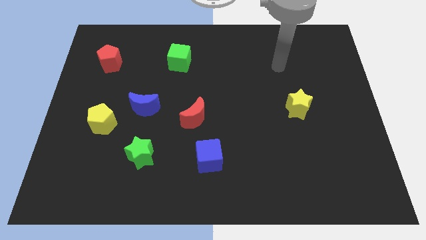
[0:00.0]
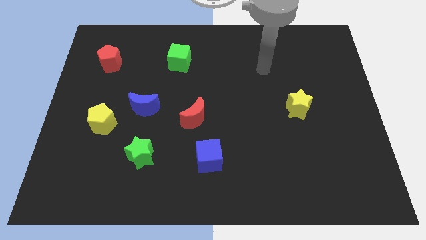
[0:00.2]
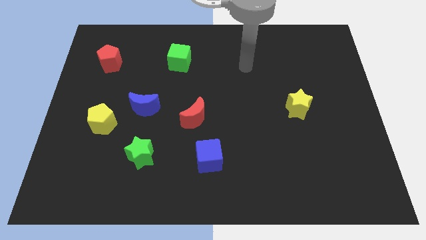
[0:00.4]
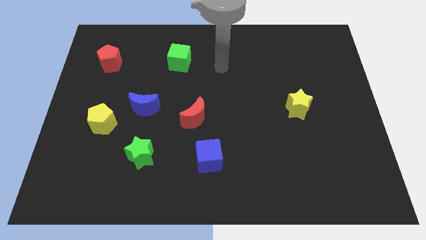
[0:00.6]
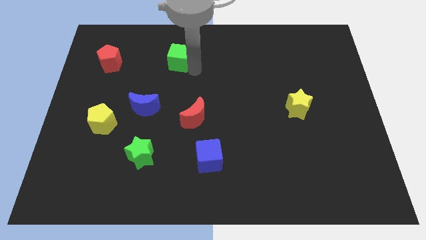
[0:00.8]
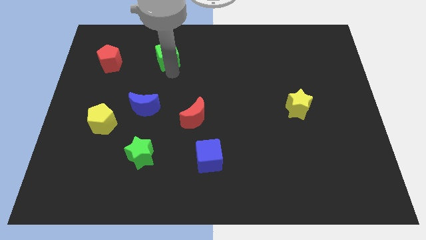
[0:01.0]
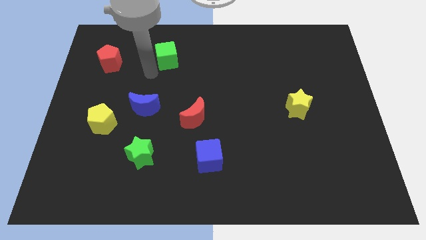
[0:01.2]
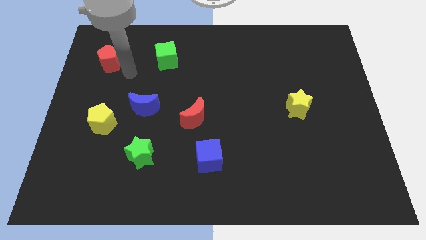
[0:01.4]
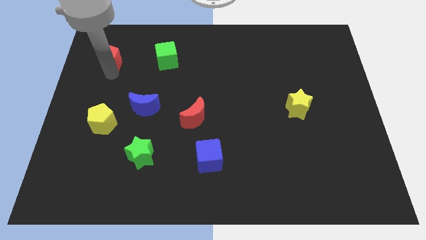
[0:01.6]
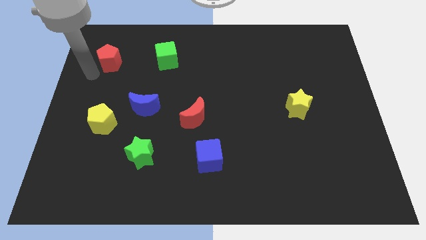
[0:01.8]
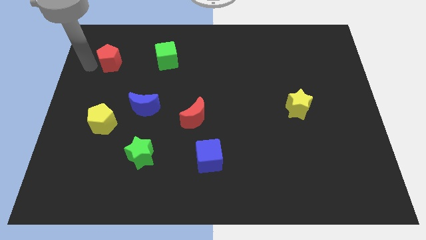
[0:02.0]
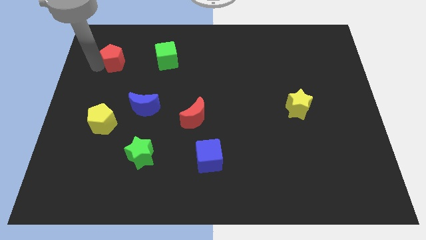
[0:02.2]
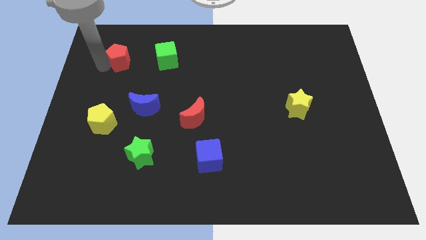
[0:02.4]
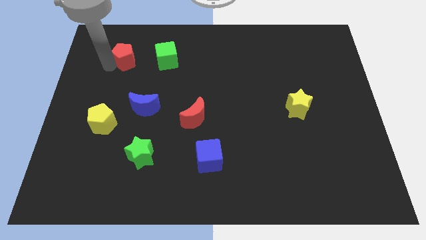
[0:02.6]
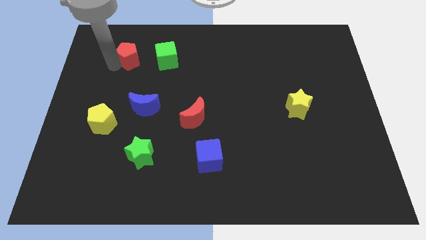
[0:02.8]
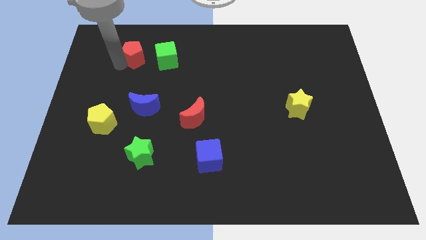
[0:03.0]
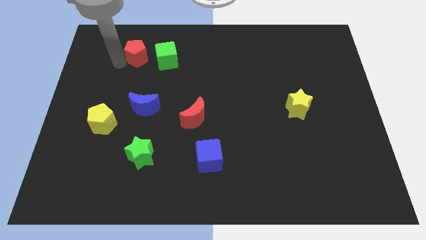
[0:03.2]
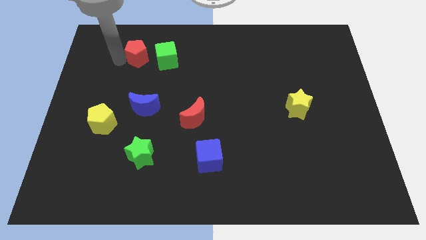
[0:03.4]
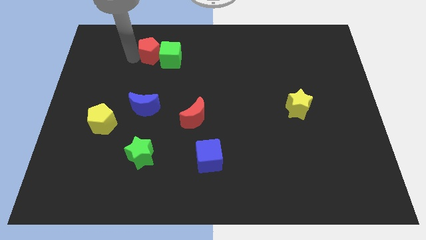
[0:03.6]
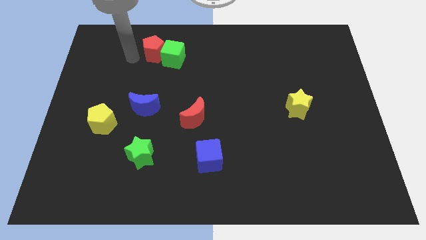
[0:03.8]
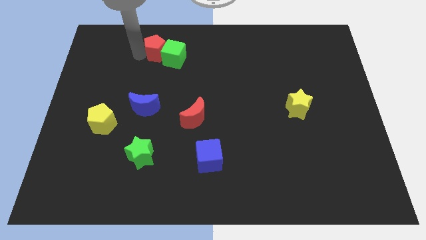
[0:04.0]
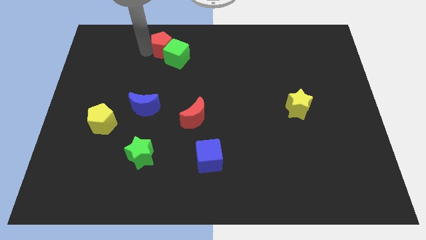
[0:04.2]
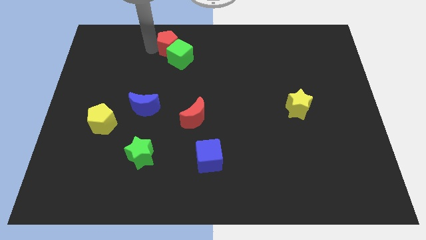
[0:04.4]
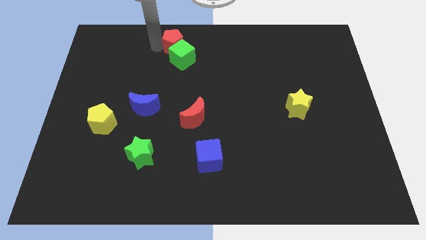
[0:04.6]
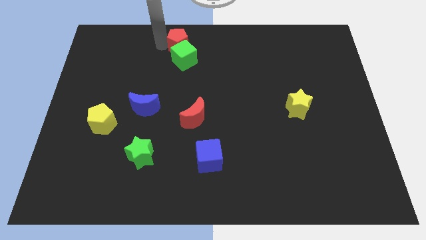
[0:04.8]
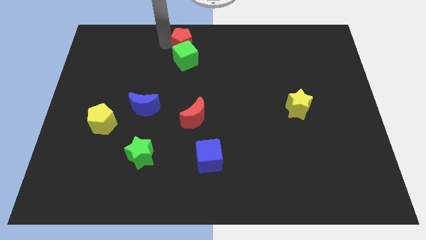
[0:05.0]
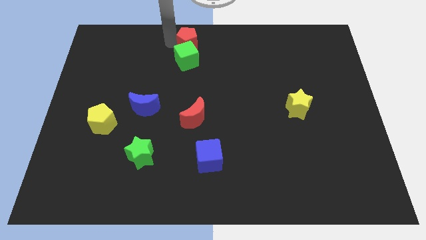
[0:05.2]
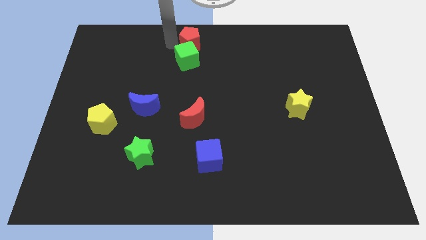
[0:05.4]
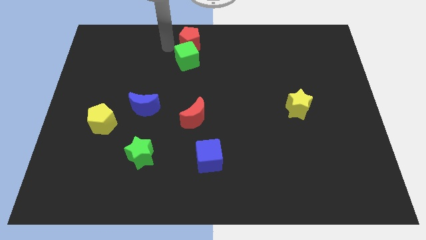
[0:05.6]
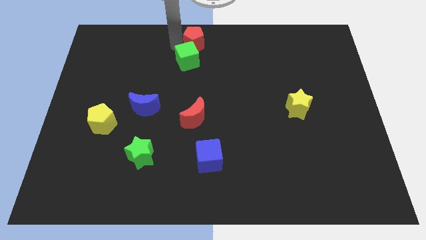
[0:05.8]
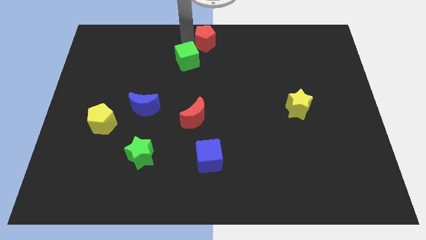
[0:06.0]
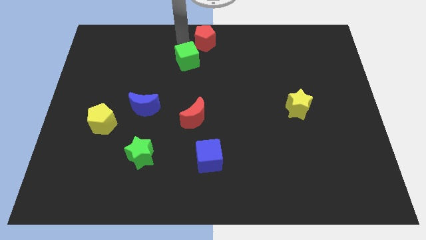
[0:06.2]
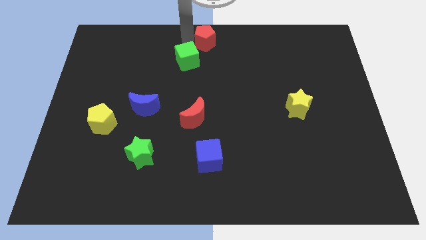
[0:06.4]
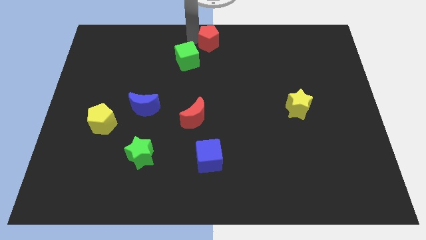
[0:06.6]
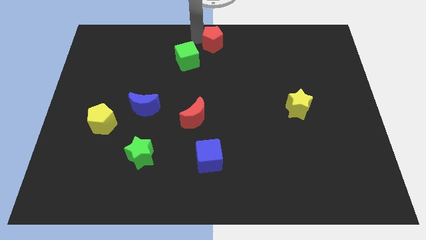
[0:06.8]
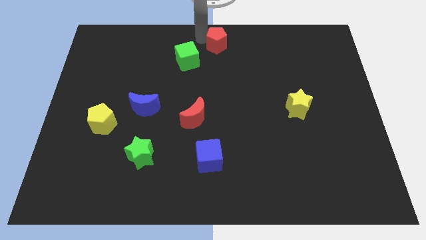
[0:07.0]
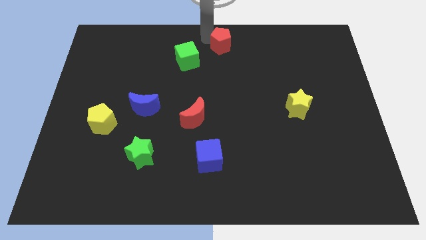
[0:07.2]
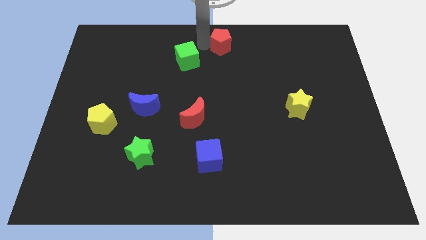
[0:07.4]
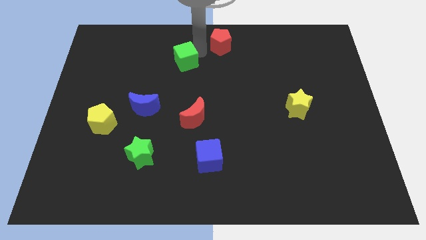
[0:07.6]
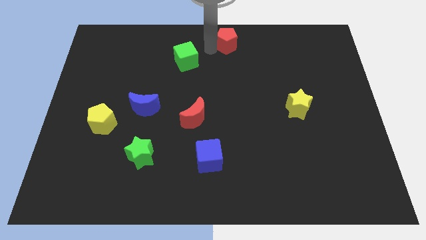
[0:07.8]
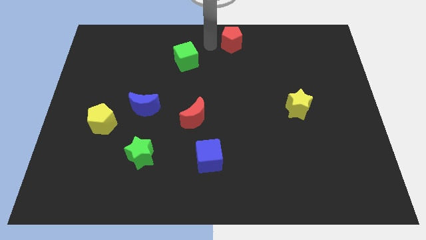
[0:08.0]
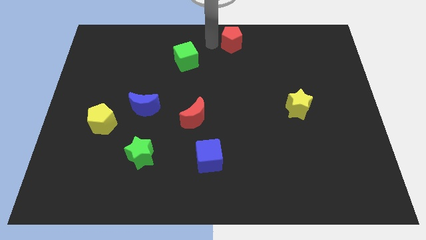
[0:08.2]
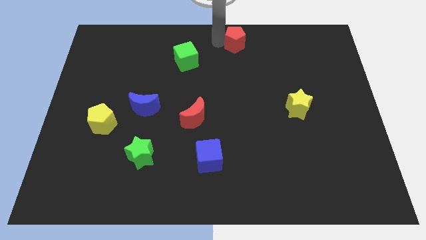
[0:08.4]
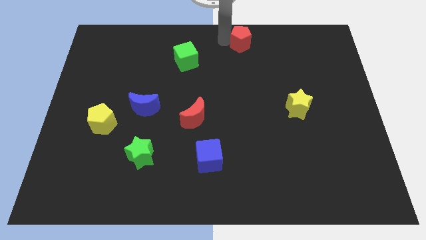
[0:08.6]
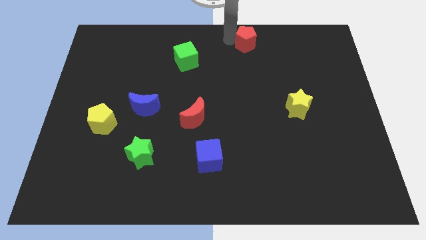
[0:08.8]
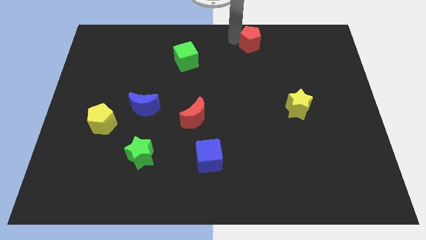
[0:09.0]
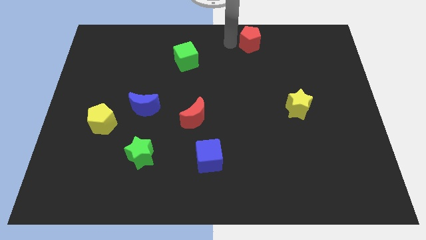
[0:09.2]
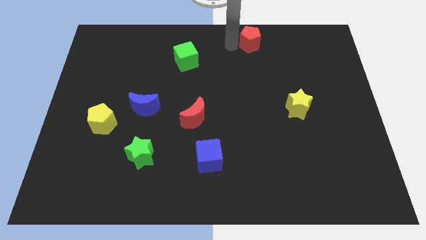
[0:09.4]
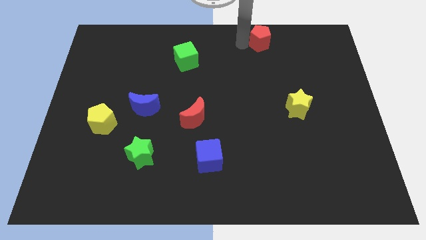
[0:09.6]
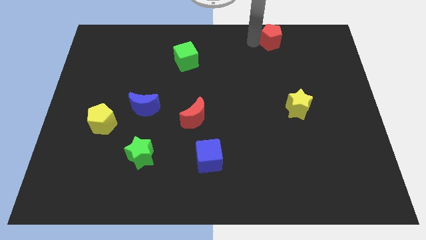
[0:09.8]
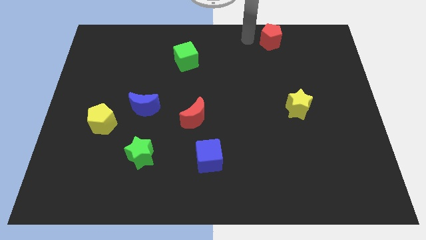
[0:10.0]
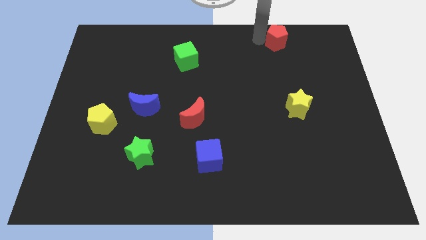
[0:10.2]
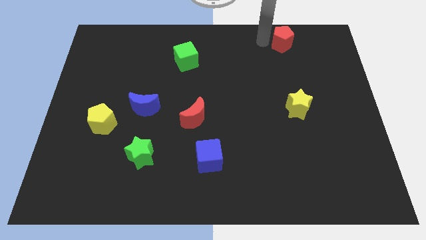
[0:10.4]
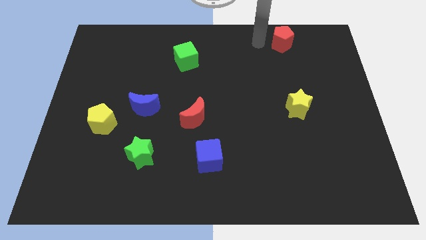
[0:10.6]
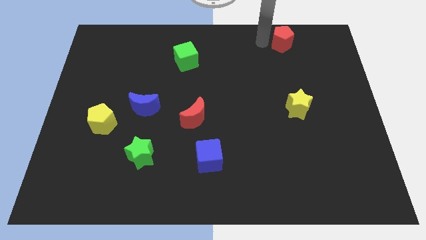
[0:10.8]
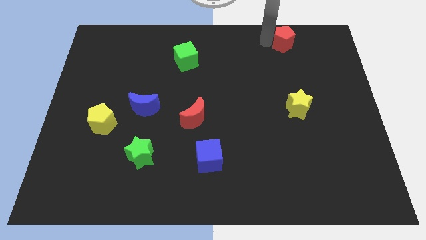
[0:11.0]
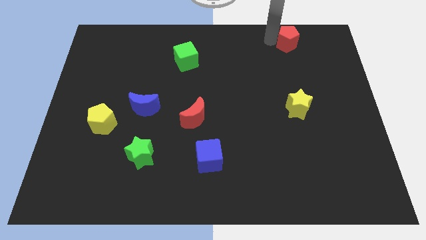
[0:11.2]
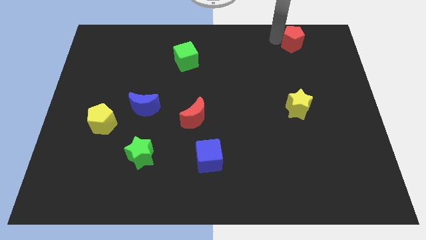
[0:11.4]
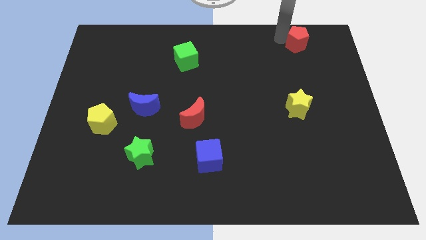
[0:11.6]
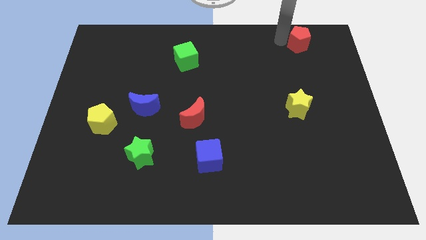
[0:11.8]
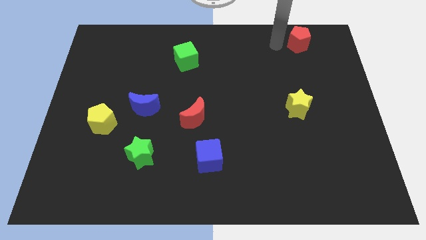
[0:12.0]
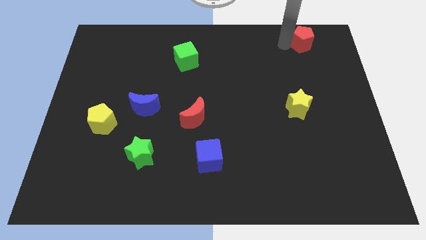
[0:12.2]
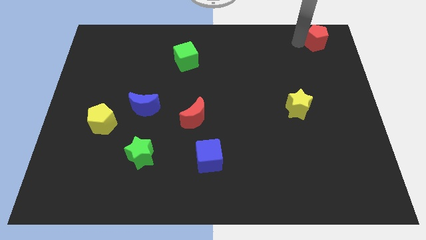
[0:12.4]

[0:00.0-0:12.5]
put the red pentagon to the upper right corner
